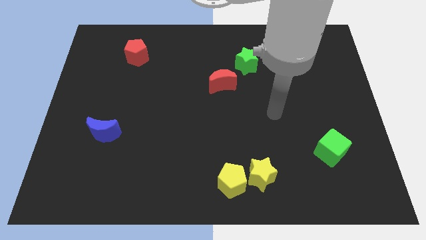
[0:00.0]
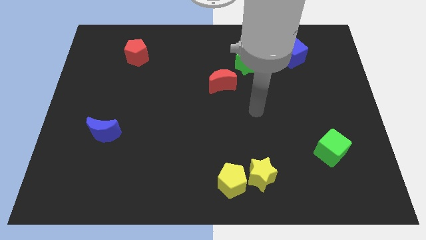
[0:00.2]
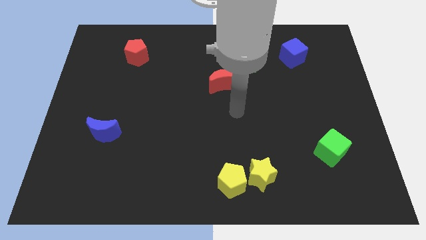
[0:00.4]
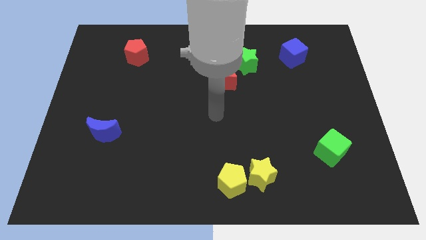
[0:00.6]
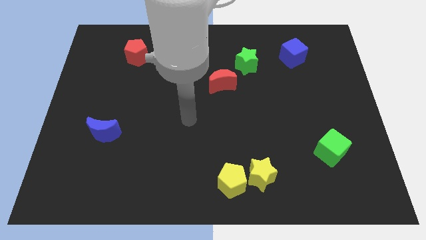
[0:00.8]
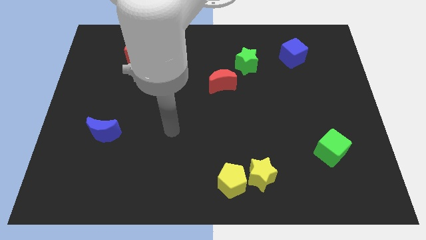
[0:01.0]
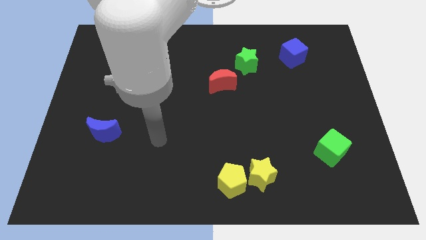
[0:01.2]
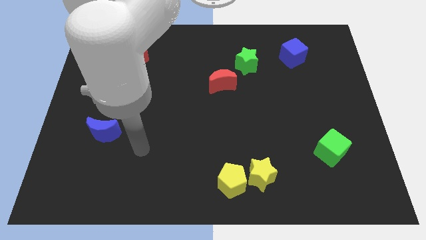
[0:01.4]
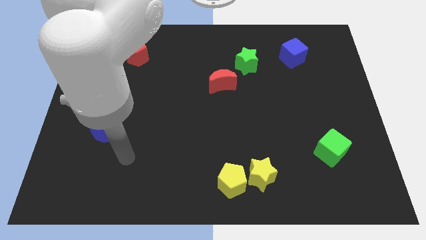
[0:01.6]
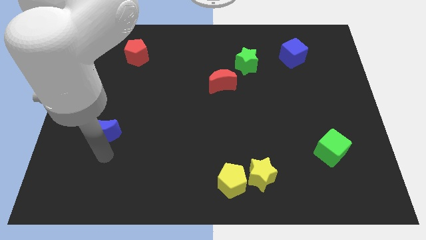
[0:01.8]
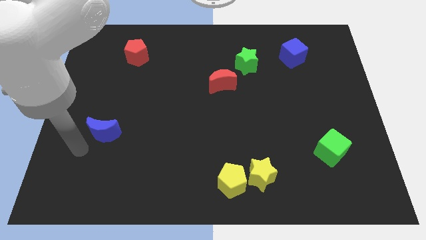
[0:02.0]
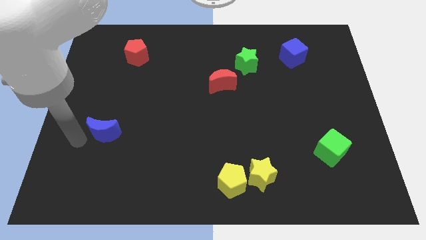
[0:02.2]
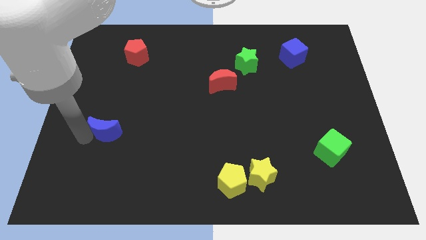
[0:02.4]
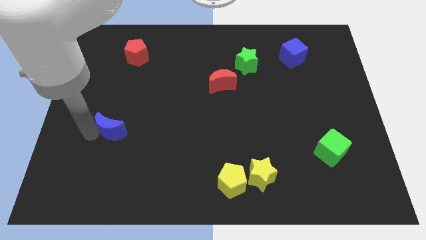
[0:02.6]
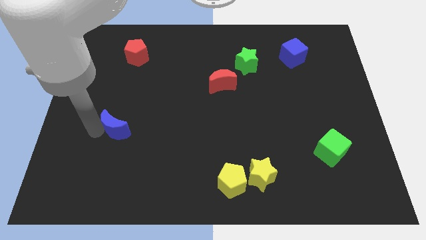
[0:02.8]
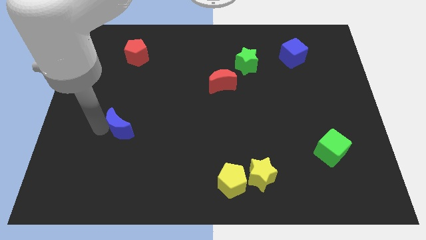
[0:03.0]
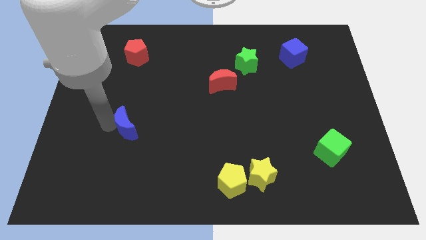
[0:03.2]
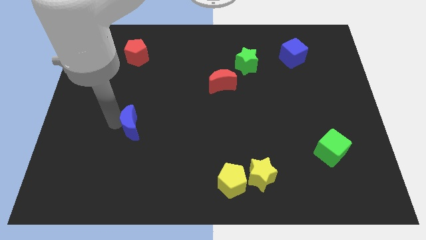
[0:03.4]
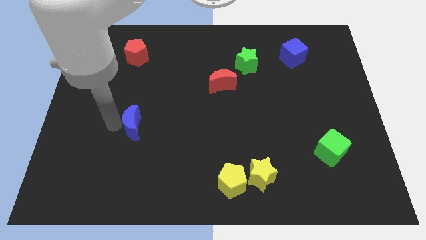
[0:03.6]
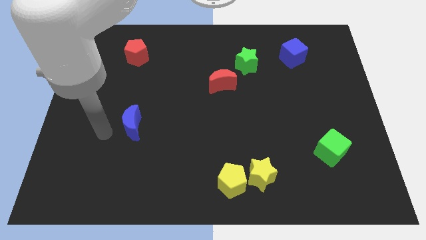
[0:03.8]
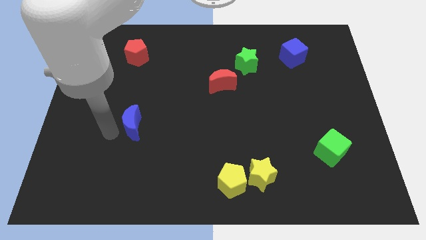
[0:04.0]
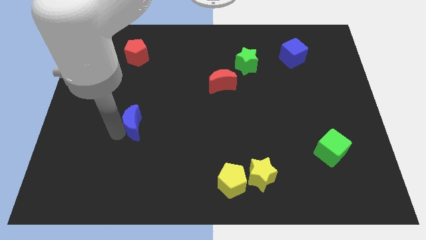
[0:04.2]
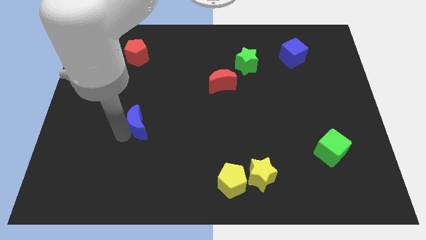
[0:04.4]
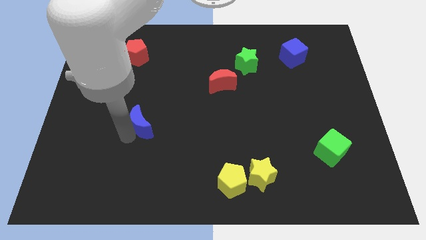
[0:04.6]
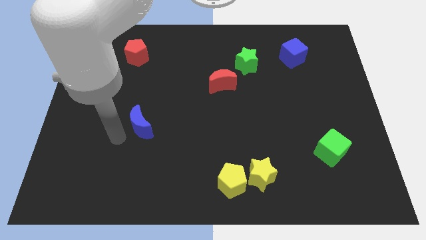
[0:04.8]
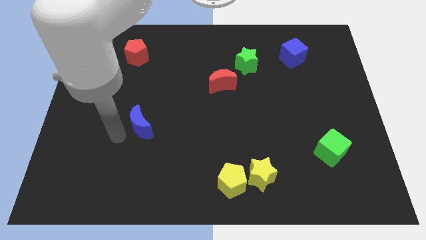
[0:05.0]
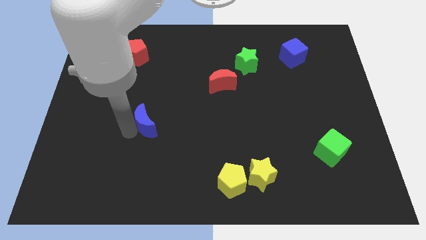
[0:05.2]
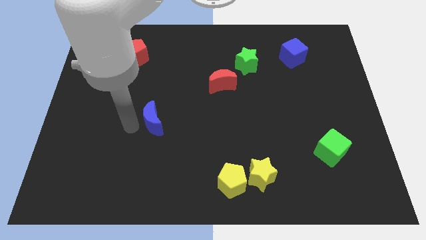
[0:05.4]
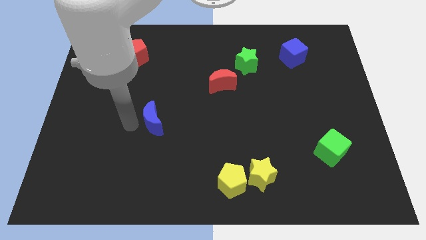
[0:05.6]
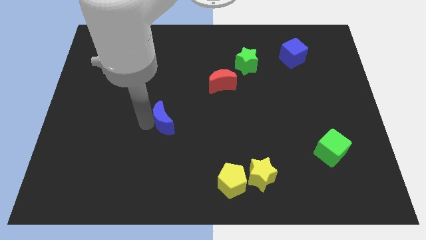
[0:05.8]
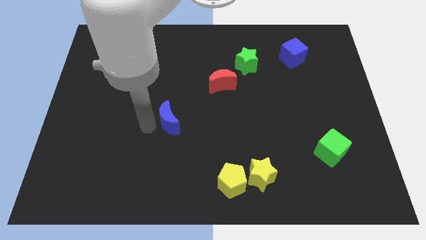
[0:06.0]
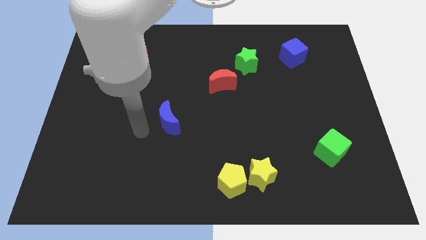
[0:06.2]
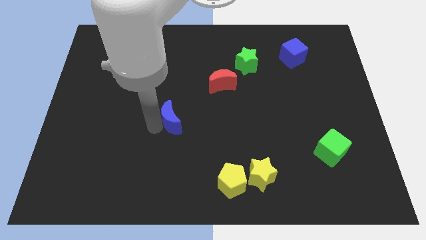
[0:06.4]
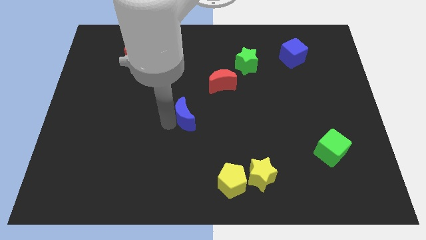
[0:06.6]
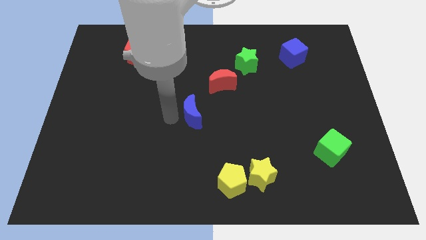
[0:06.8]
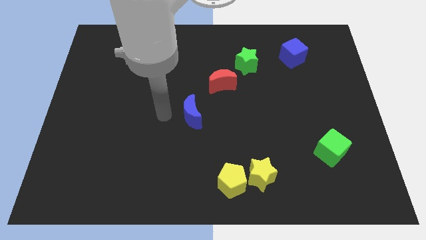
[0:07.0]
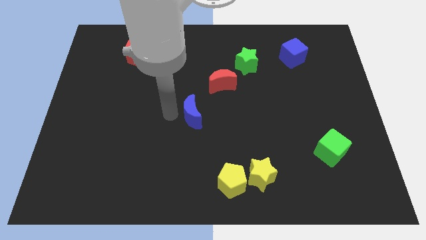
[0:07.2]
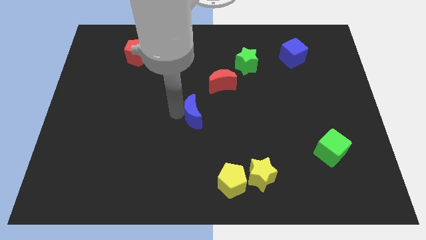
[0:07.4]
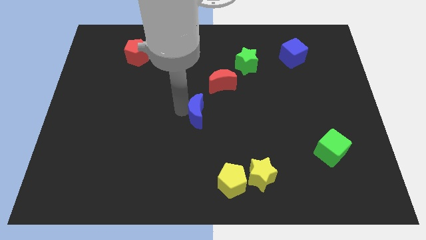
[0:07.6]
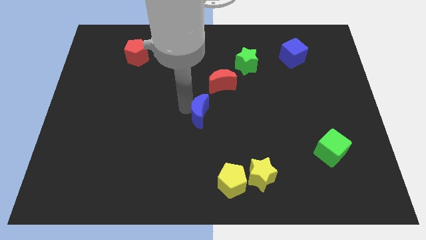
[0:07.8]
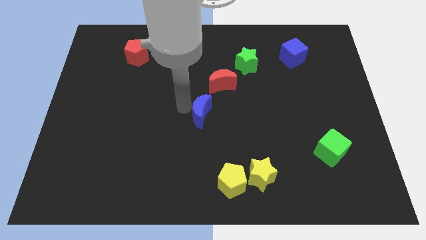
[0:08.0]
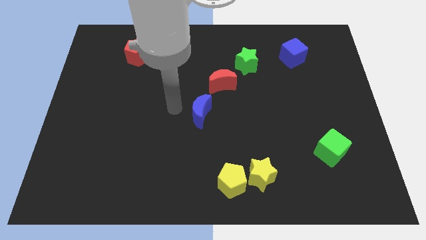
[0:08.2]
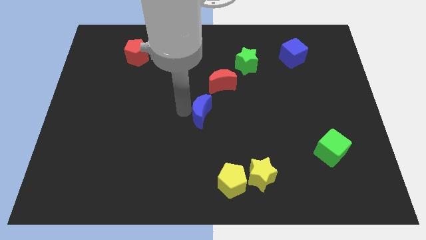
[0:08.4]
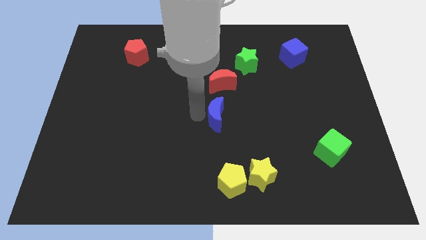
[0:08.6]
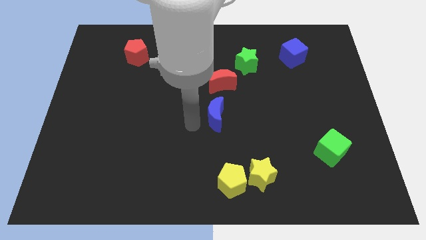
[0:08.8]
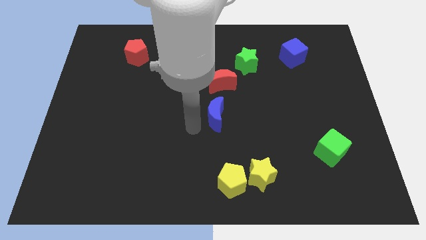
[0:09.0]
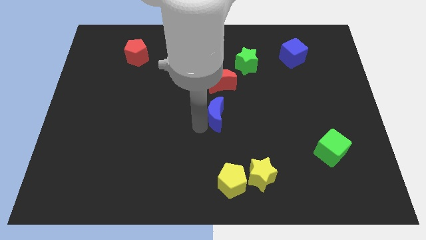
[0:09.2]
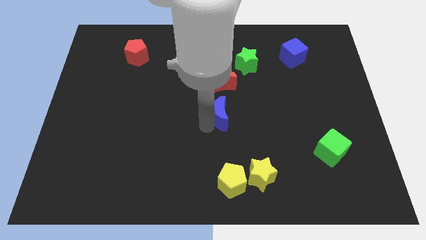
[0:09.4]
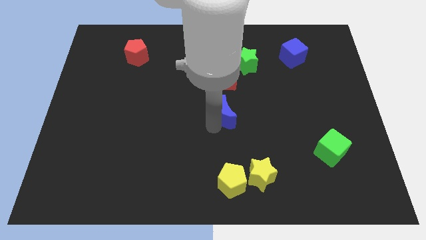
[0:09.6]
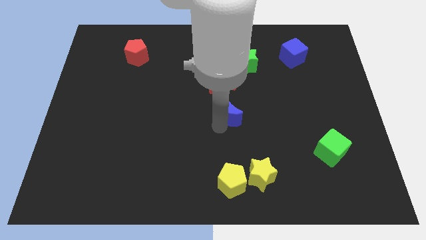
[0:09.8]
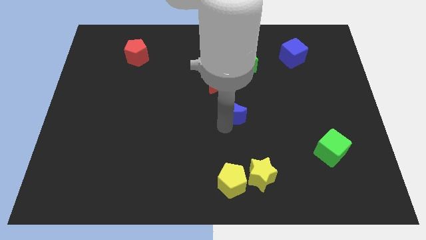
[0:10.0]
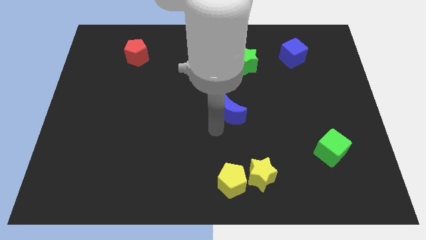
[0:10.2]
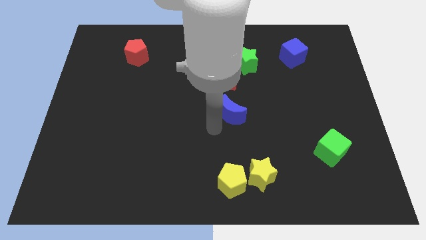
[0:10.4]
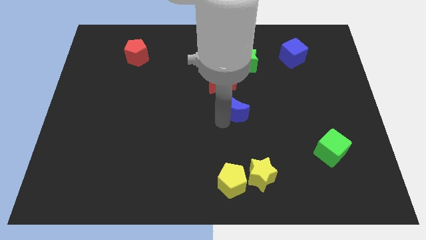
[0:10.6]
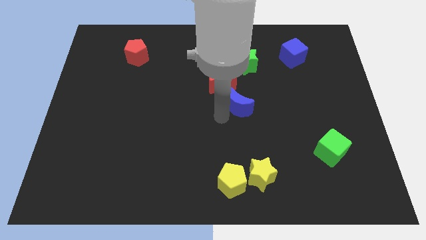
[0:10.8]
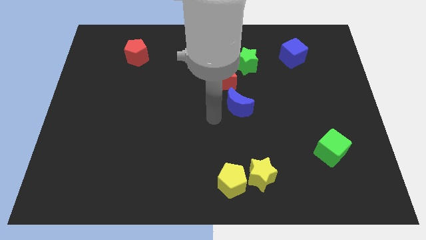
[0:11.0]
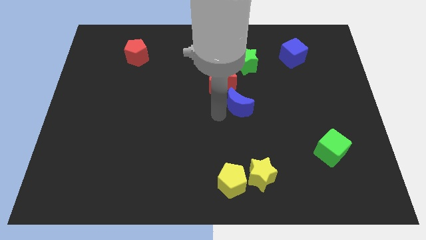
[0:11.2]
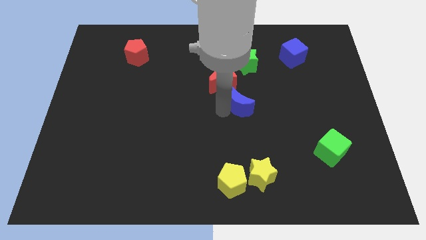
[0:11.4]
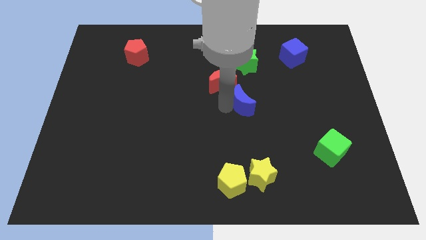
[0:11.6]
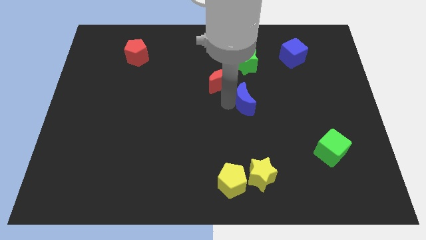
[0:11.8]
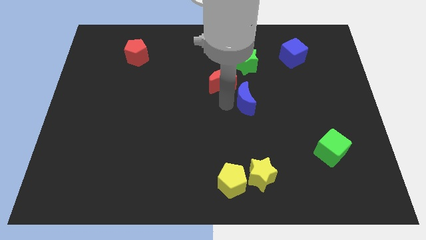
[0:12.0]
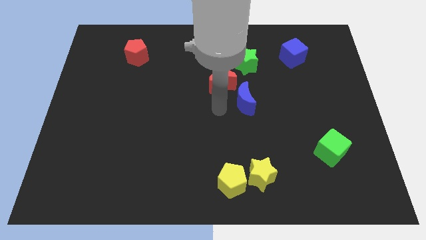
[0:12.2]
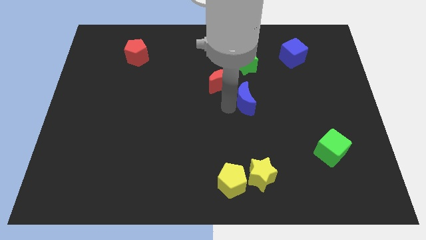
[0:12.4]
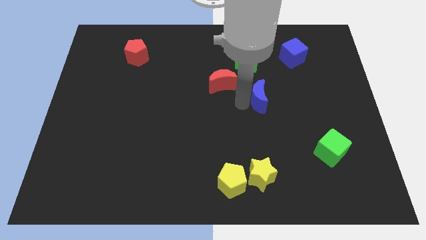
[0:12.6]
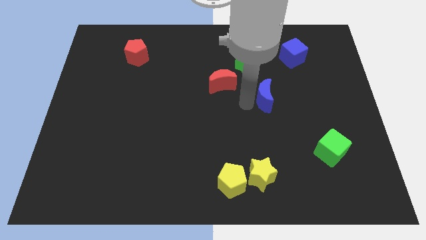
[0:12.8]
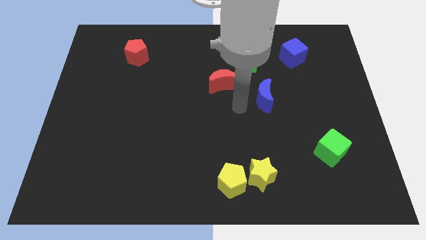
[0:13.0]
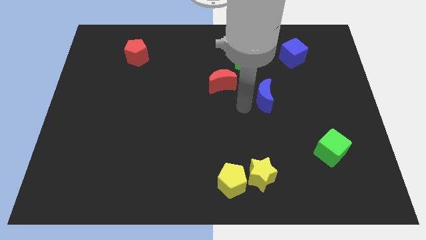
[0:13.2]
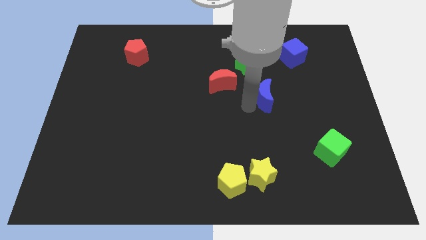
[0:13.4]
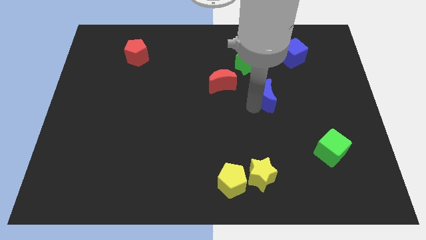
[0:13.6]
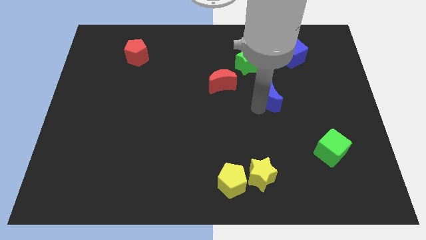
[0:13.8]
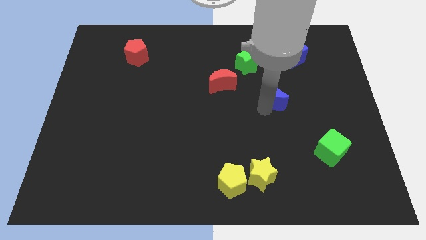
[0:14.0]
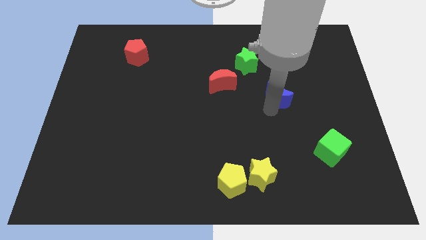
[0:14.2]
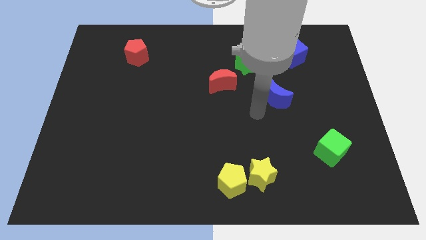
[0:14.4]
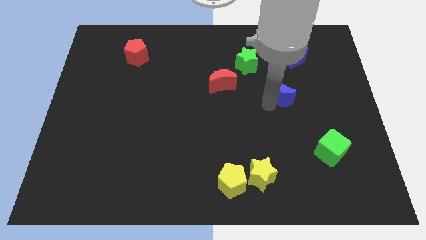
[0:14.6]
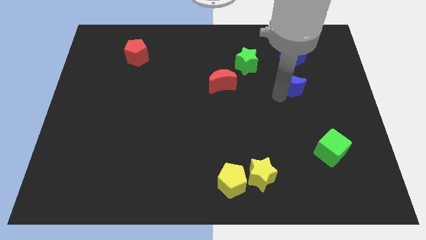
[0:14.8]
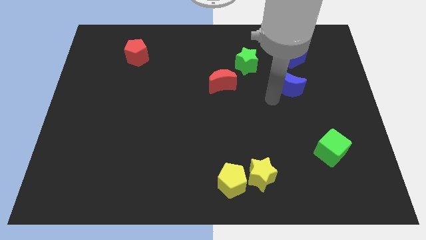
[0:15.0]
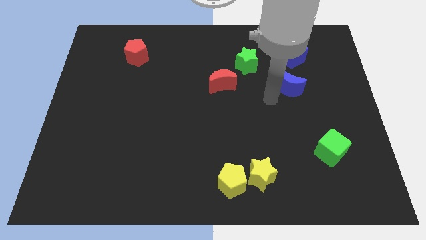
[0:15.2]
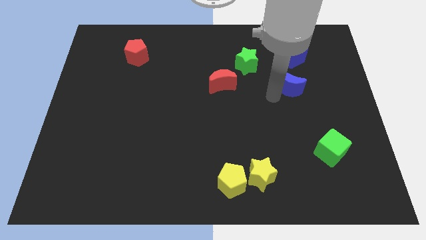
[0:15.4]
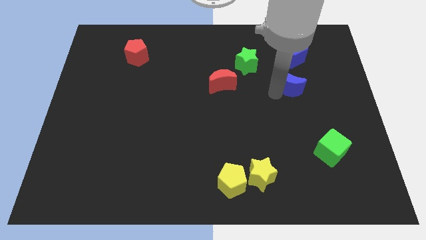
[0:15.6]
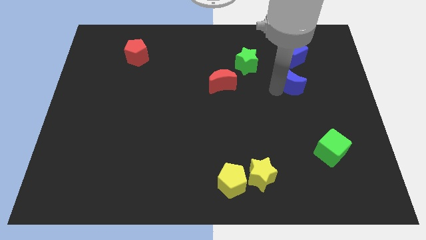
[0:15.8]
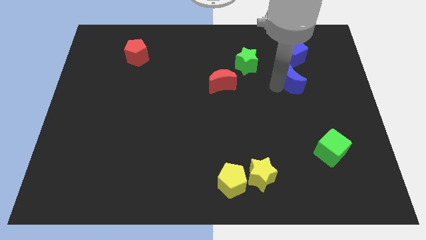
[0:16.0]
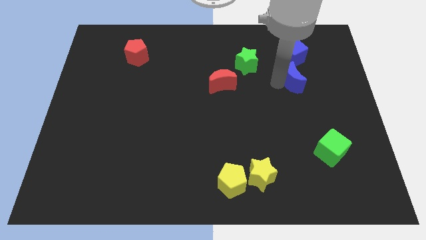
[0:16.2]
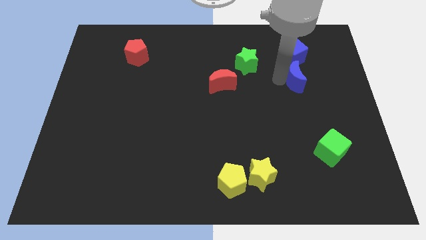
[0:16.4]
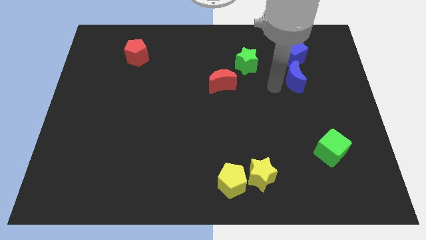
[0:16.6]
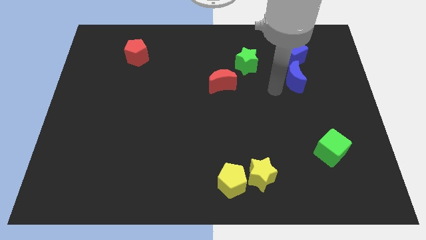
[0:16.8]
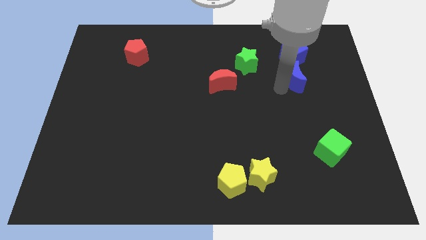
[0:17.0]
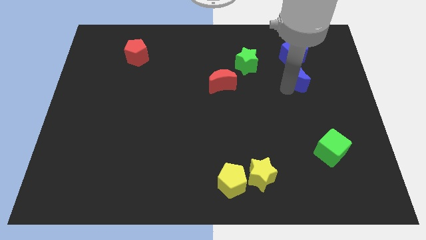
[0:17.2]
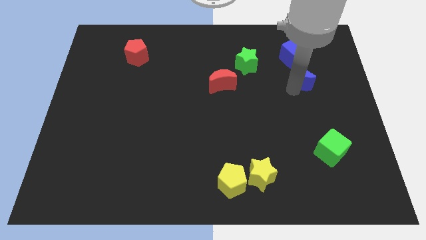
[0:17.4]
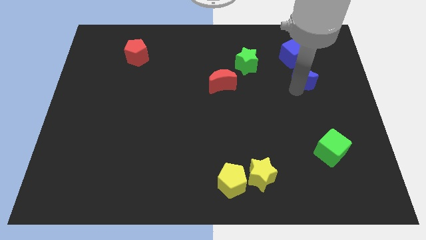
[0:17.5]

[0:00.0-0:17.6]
move the blue moon to the bottom right of the blue cube
